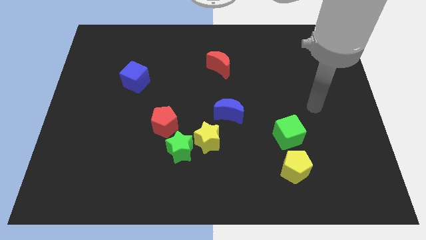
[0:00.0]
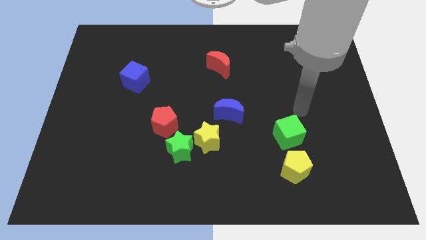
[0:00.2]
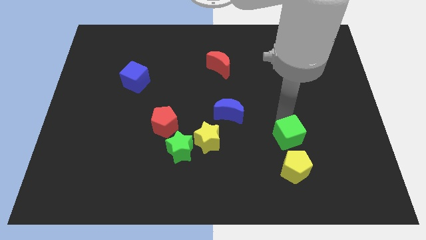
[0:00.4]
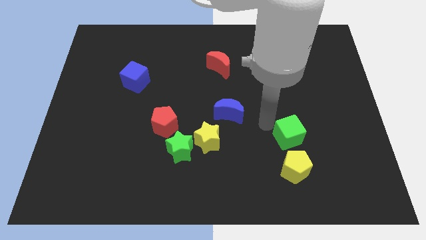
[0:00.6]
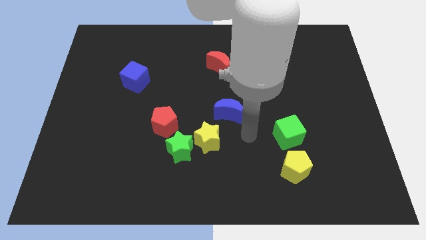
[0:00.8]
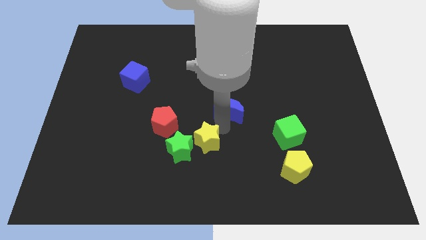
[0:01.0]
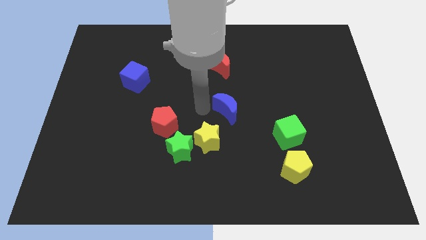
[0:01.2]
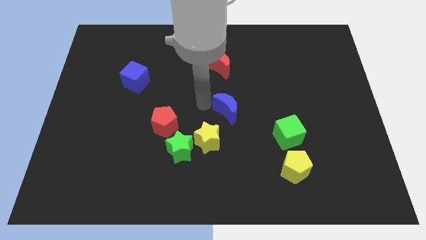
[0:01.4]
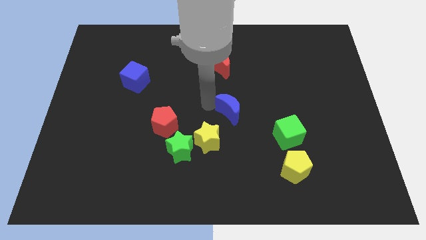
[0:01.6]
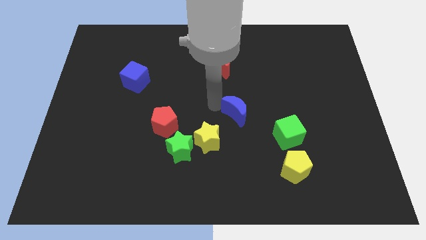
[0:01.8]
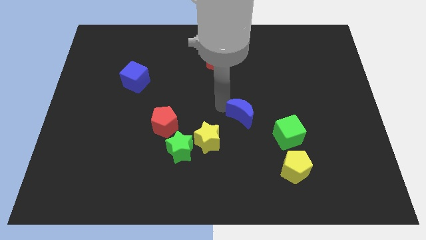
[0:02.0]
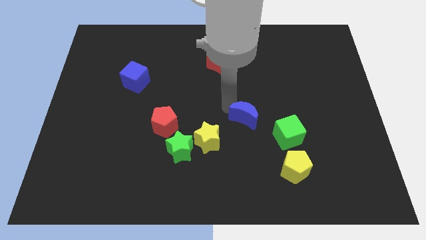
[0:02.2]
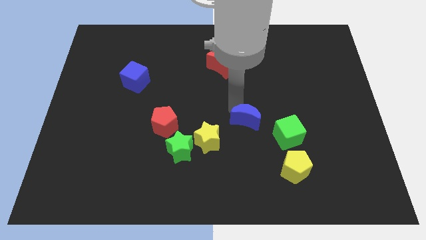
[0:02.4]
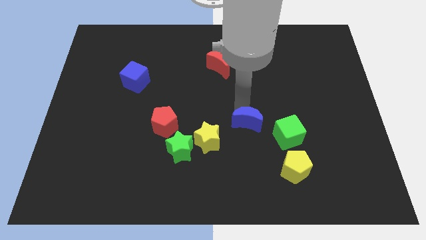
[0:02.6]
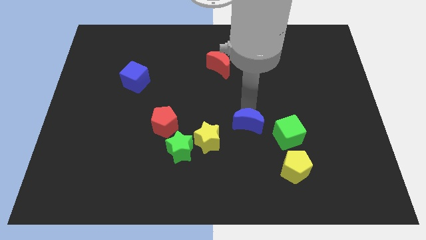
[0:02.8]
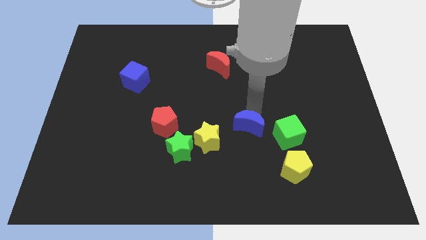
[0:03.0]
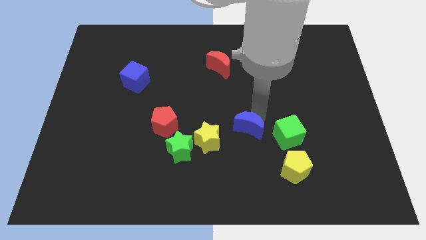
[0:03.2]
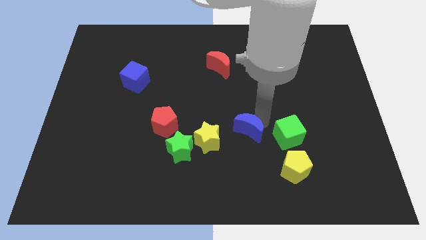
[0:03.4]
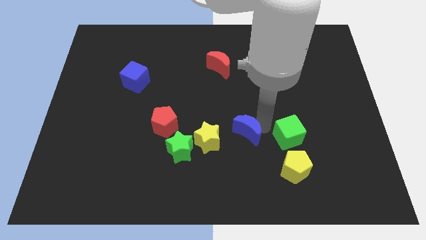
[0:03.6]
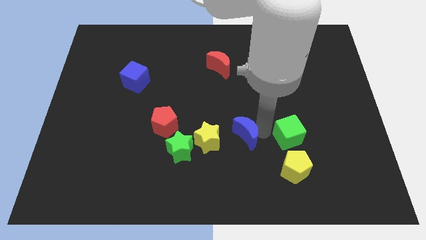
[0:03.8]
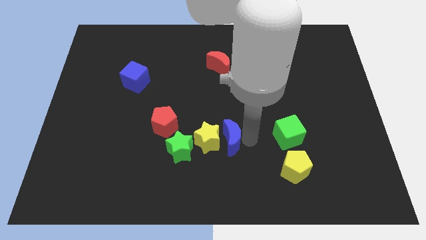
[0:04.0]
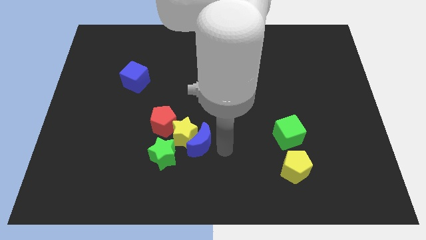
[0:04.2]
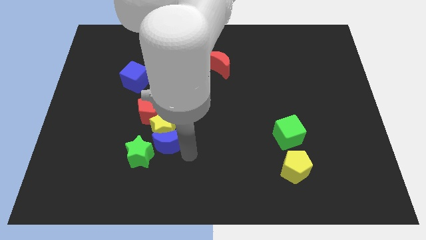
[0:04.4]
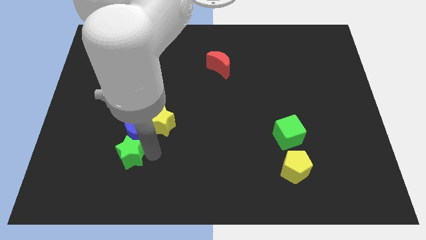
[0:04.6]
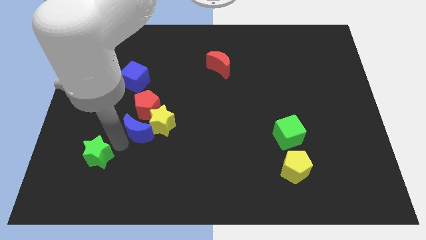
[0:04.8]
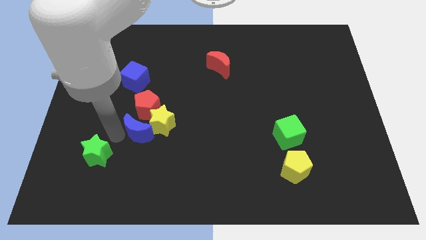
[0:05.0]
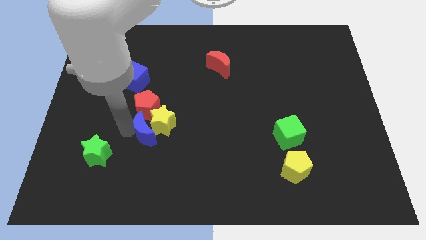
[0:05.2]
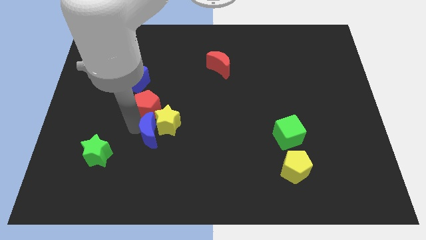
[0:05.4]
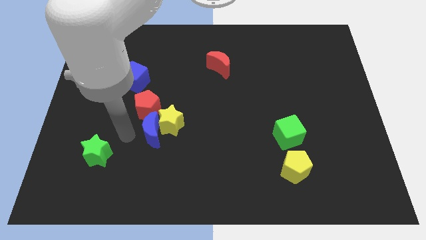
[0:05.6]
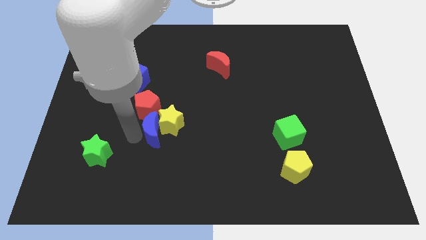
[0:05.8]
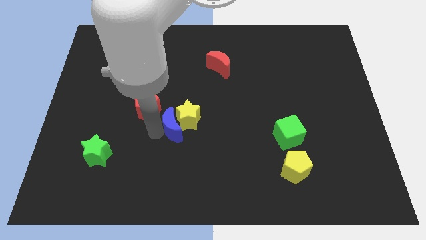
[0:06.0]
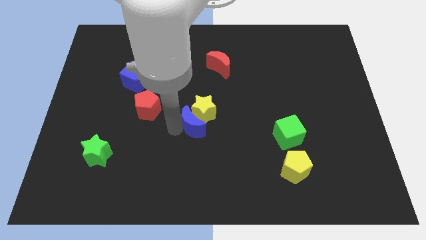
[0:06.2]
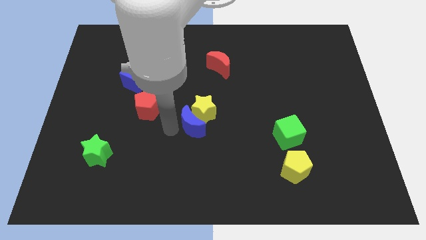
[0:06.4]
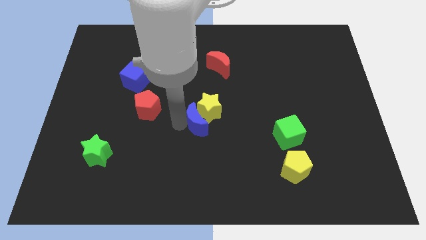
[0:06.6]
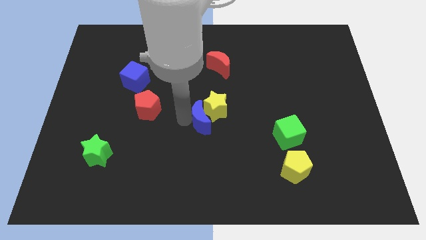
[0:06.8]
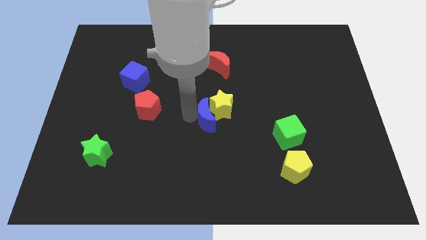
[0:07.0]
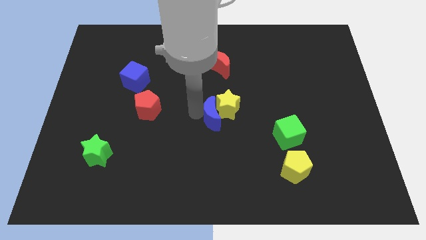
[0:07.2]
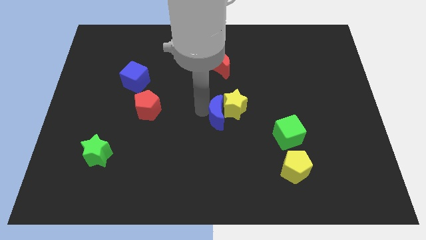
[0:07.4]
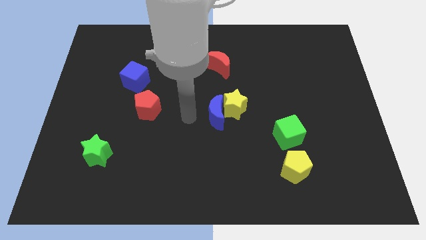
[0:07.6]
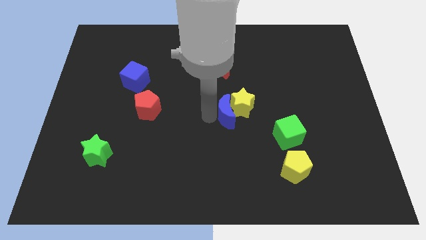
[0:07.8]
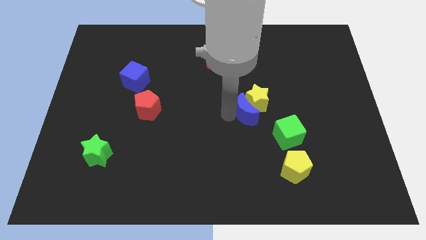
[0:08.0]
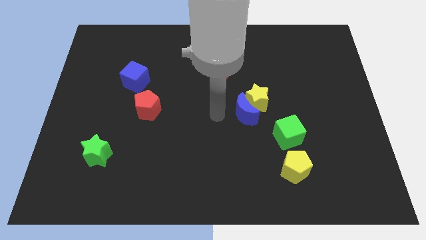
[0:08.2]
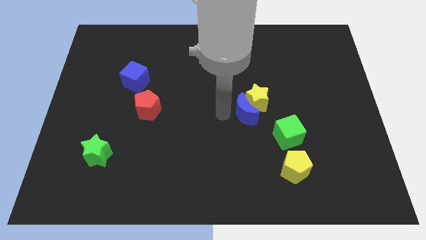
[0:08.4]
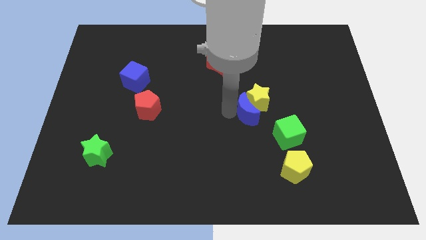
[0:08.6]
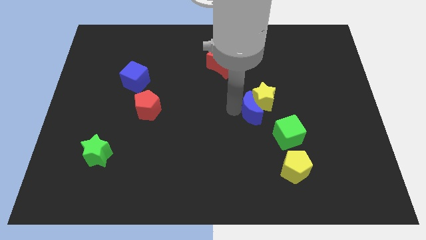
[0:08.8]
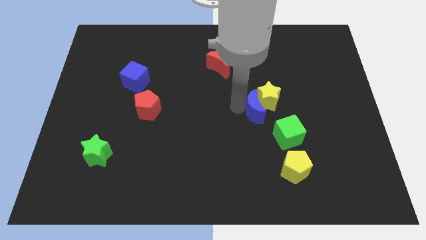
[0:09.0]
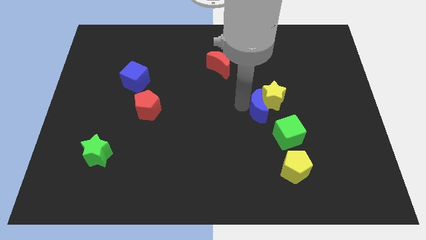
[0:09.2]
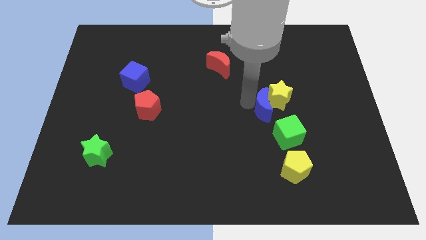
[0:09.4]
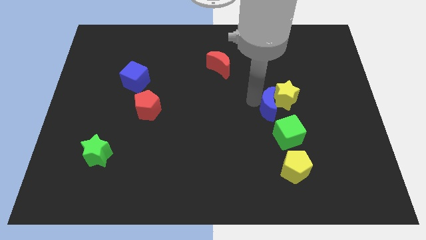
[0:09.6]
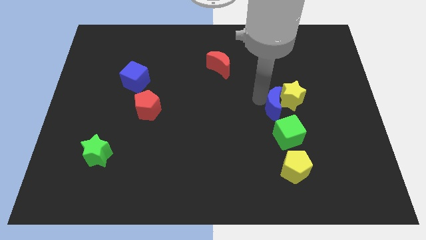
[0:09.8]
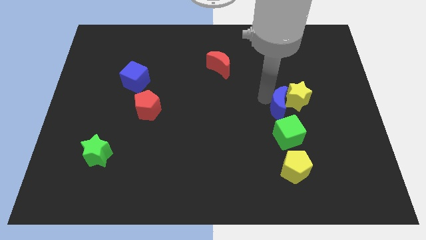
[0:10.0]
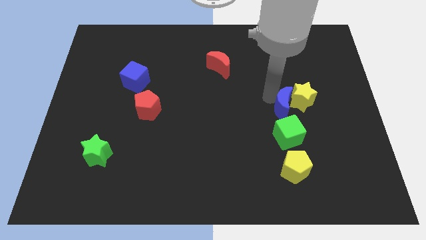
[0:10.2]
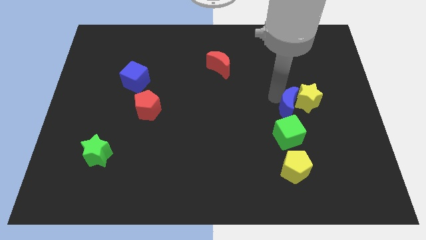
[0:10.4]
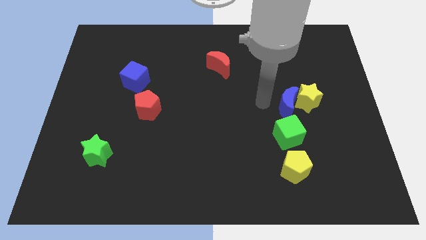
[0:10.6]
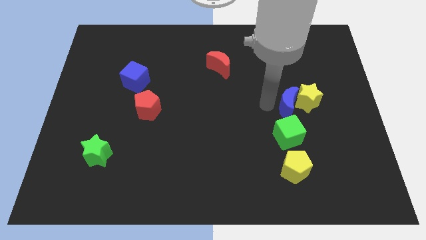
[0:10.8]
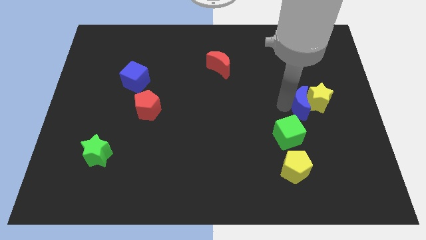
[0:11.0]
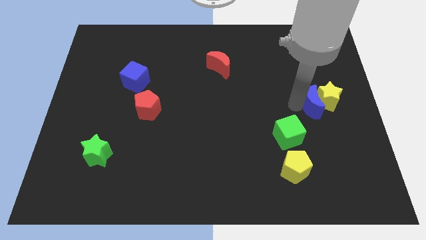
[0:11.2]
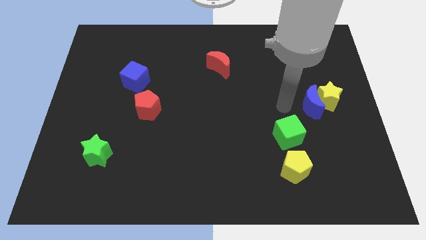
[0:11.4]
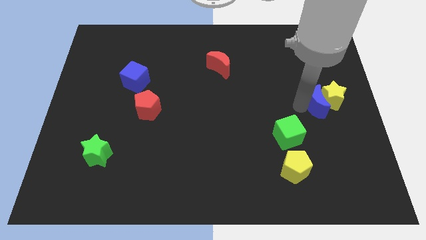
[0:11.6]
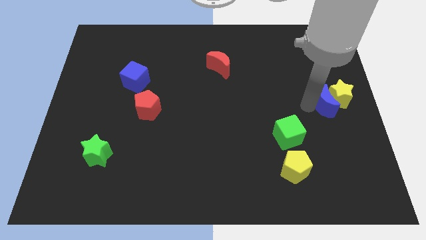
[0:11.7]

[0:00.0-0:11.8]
put the blue moon to the center right

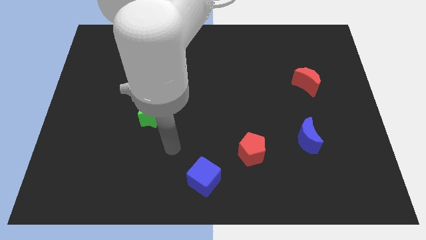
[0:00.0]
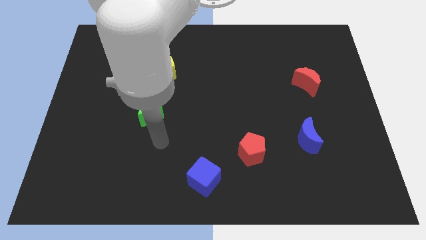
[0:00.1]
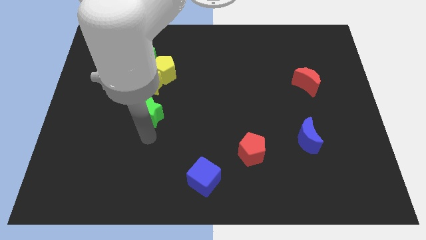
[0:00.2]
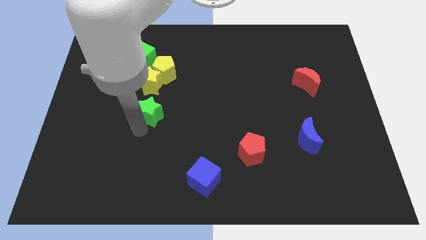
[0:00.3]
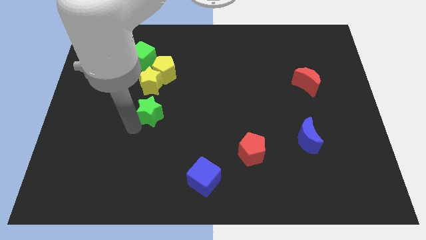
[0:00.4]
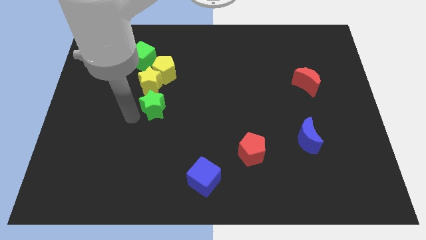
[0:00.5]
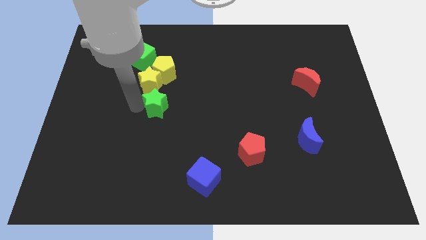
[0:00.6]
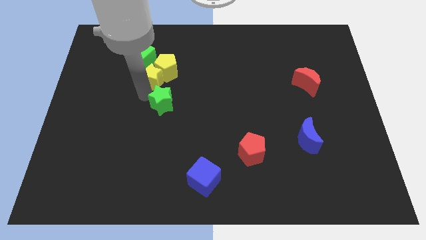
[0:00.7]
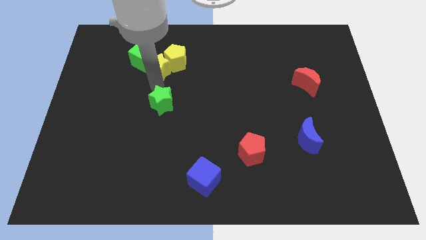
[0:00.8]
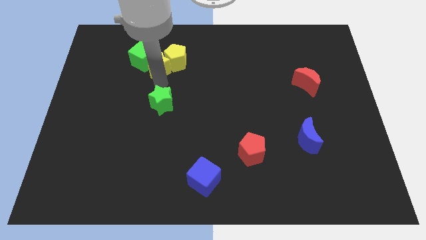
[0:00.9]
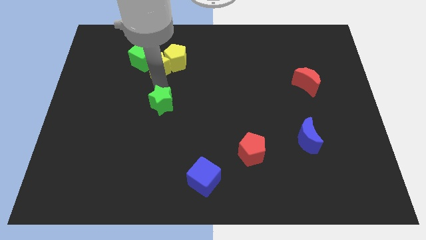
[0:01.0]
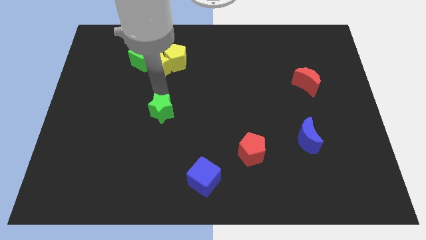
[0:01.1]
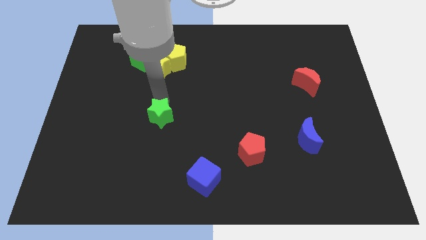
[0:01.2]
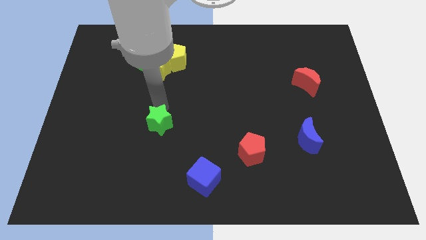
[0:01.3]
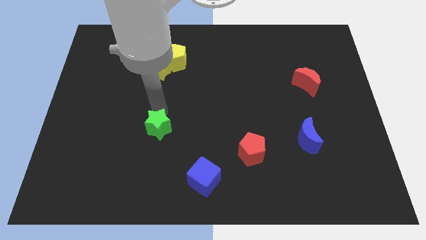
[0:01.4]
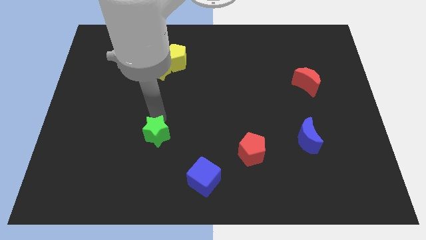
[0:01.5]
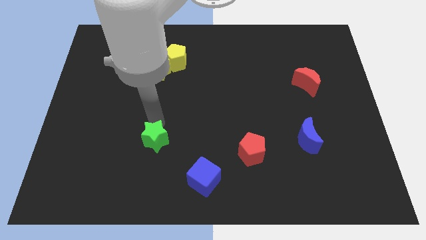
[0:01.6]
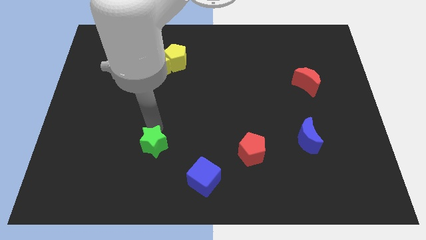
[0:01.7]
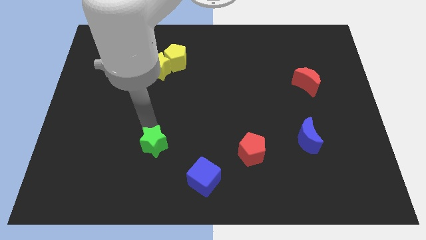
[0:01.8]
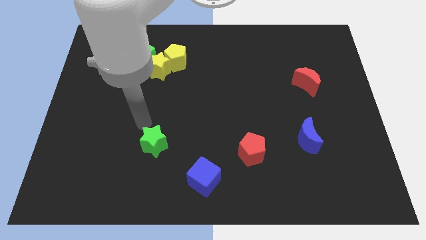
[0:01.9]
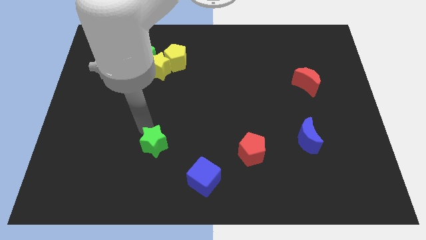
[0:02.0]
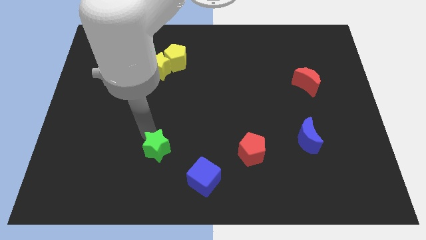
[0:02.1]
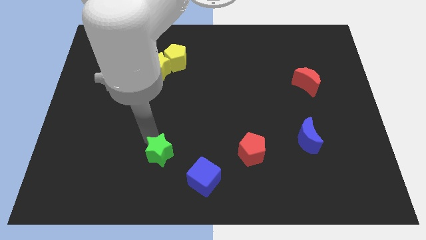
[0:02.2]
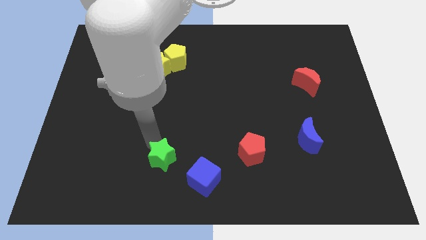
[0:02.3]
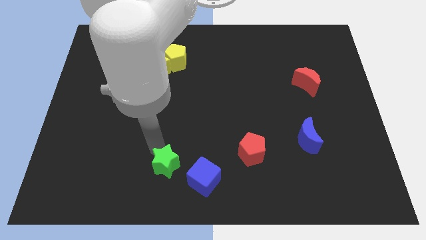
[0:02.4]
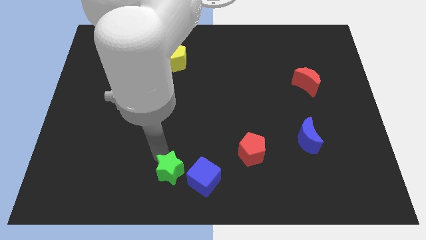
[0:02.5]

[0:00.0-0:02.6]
push the green star to the bottom side
